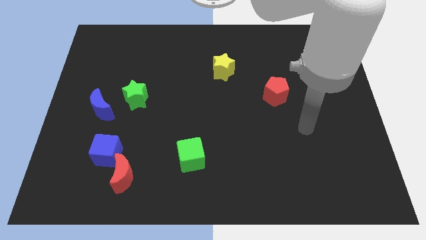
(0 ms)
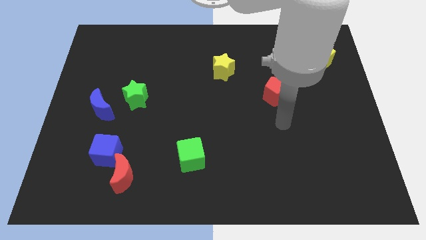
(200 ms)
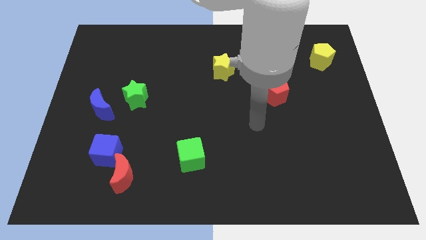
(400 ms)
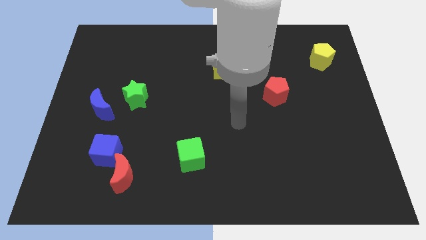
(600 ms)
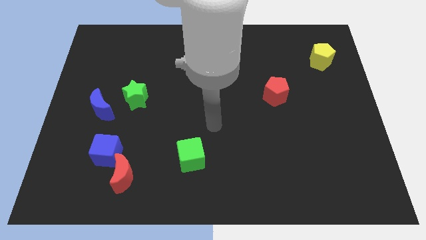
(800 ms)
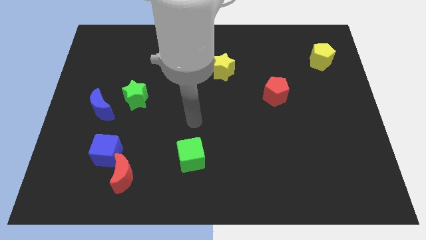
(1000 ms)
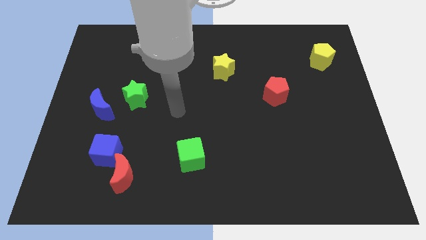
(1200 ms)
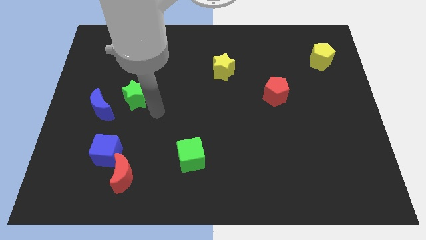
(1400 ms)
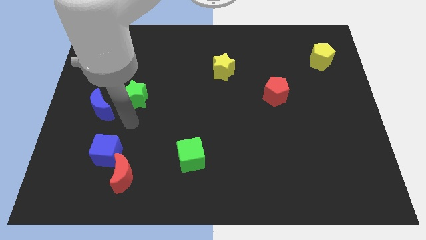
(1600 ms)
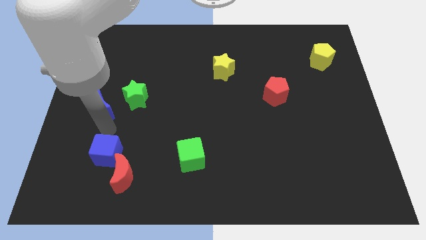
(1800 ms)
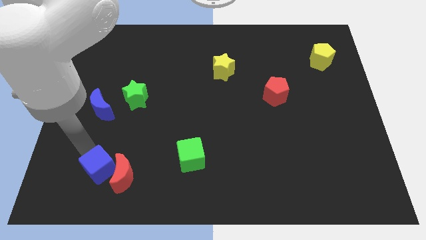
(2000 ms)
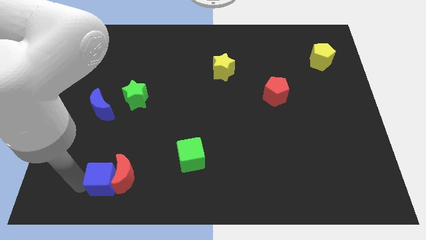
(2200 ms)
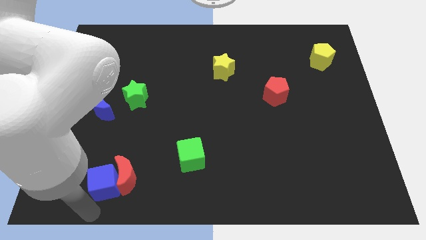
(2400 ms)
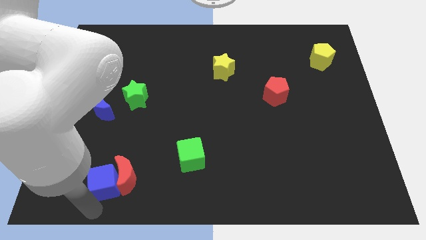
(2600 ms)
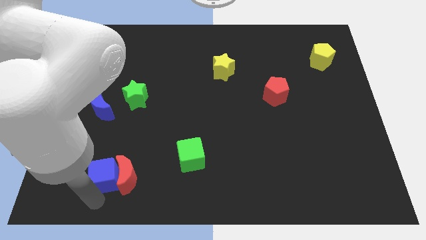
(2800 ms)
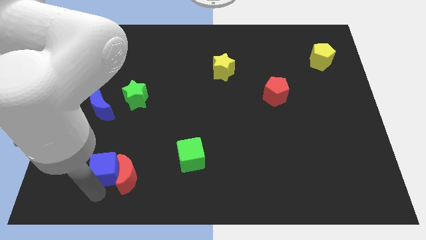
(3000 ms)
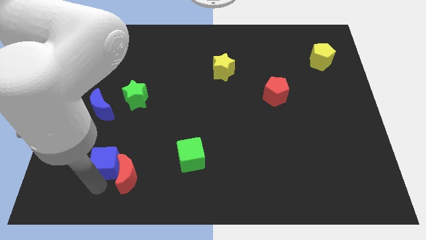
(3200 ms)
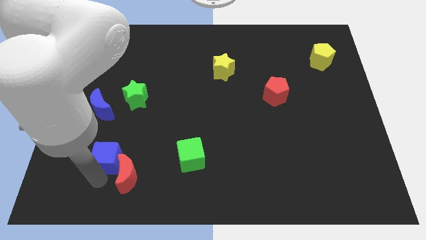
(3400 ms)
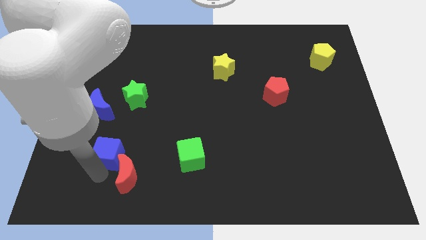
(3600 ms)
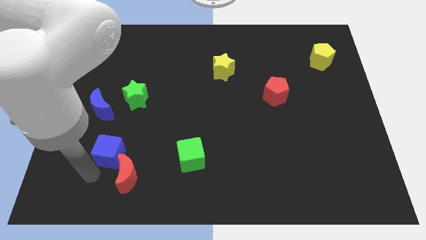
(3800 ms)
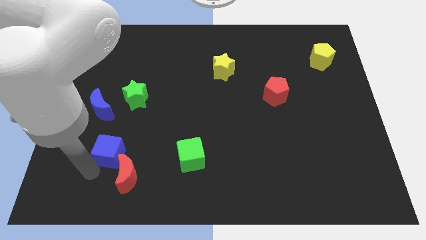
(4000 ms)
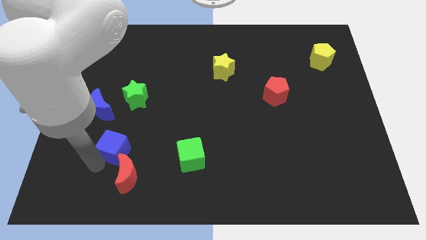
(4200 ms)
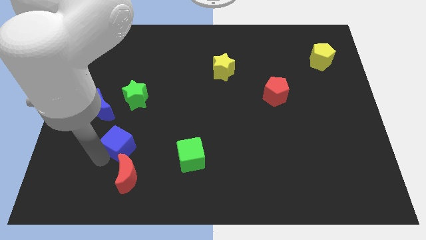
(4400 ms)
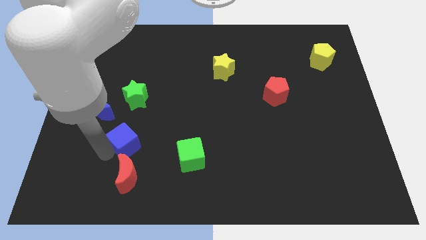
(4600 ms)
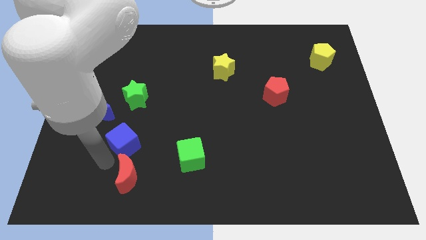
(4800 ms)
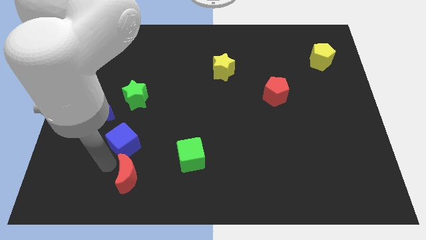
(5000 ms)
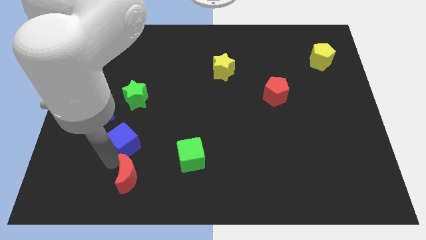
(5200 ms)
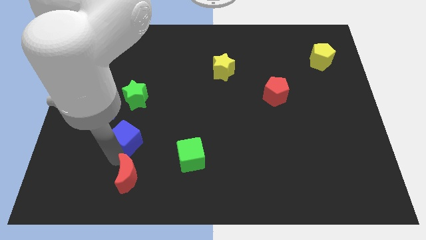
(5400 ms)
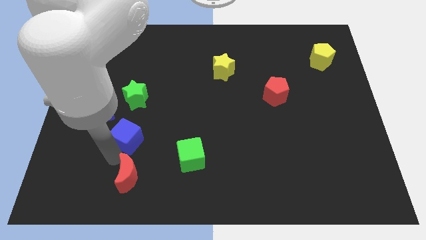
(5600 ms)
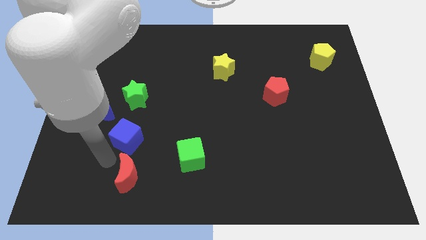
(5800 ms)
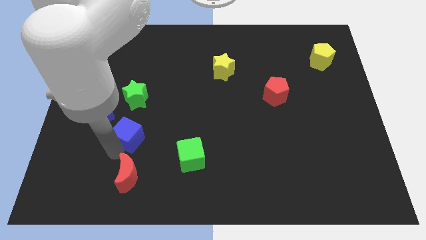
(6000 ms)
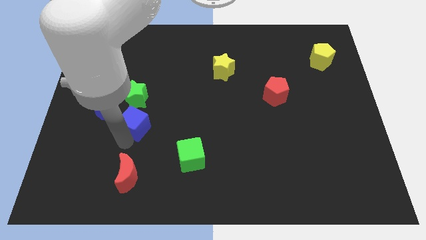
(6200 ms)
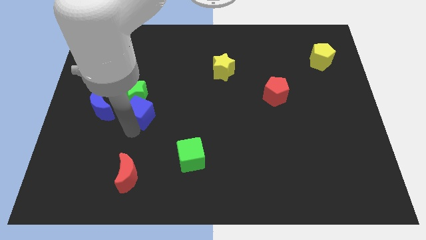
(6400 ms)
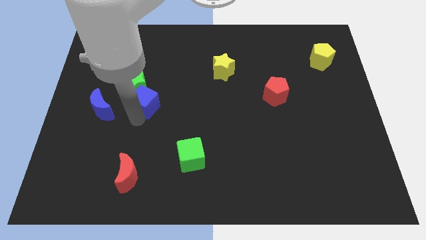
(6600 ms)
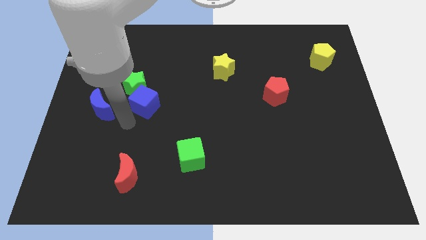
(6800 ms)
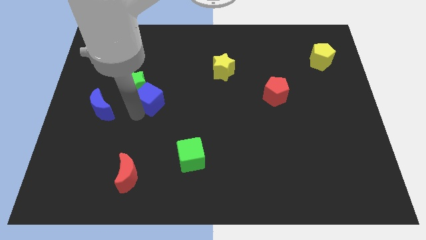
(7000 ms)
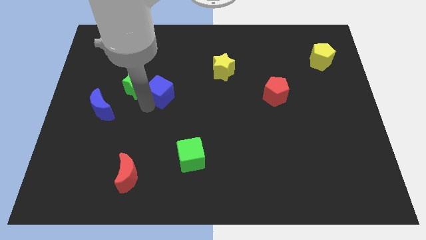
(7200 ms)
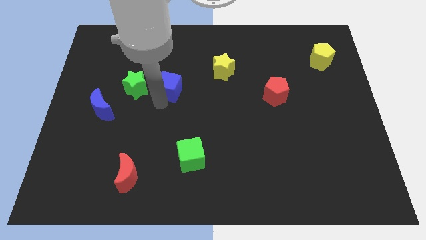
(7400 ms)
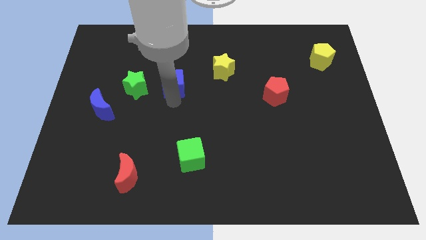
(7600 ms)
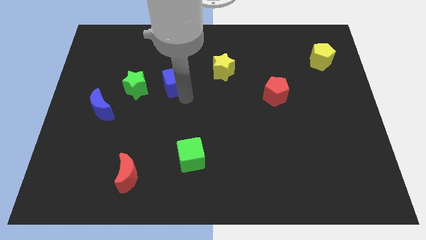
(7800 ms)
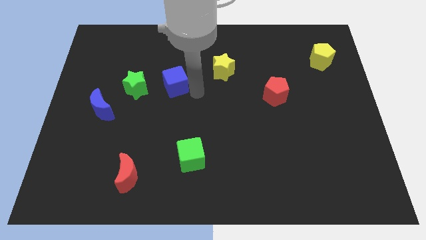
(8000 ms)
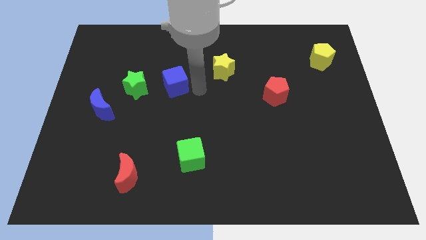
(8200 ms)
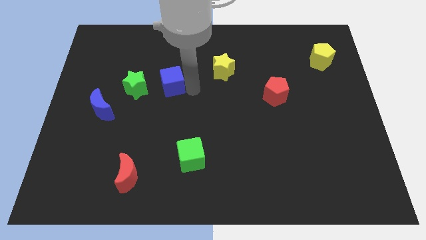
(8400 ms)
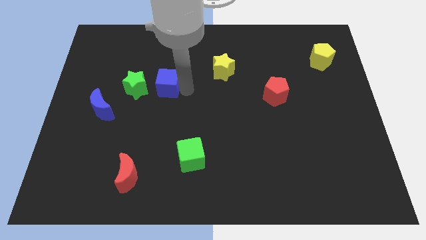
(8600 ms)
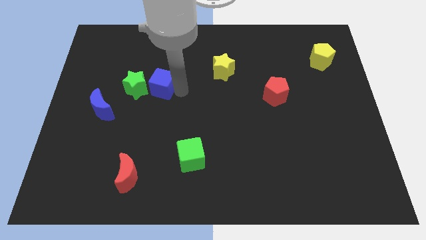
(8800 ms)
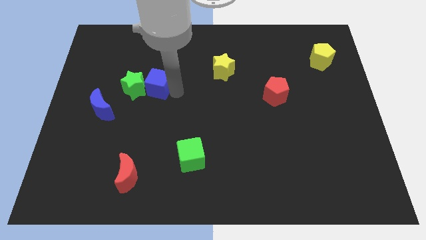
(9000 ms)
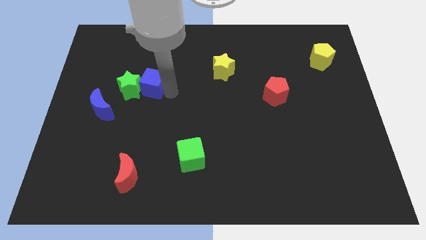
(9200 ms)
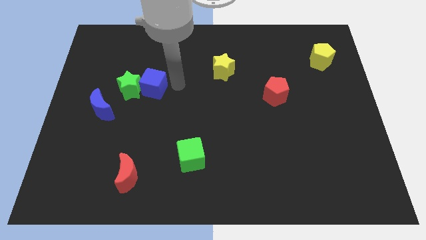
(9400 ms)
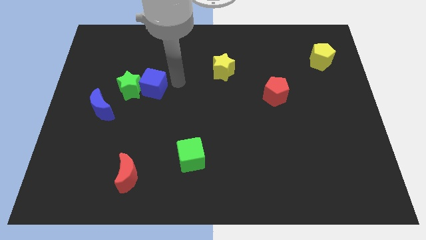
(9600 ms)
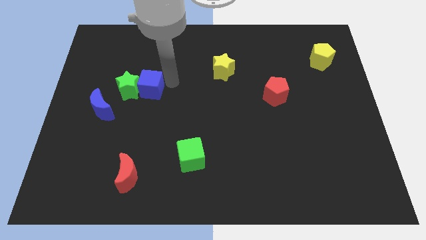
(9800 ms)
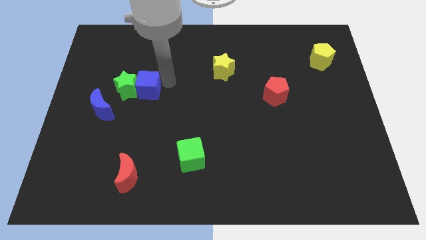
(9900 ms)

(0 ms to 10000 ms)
slide the blue cube diagonally up and to the right of the blue moon

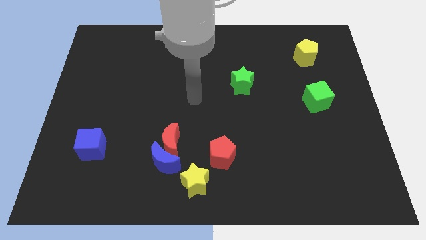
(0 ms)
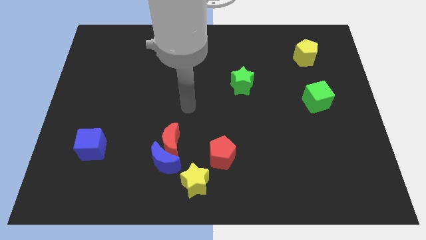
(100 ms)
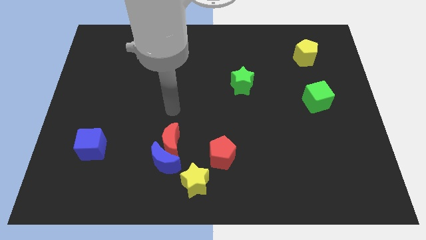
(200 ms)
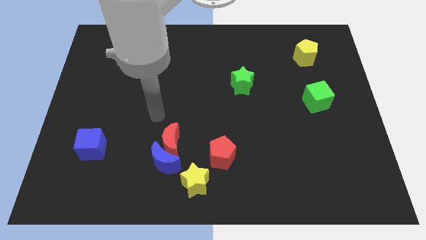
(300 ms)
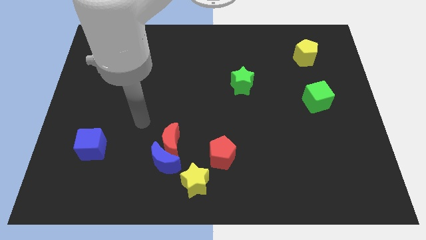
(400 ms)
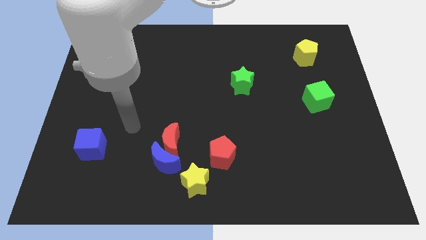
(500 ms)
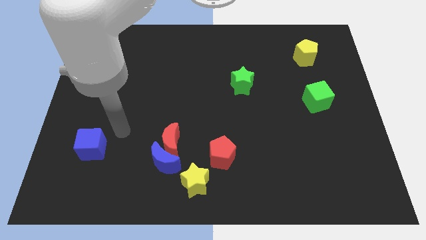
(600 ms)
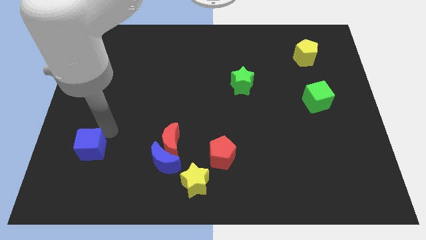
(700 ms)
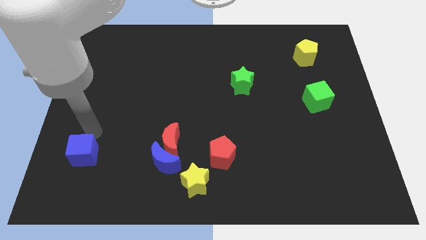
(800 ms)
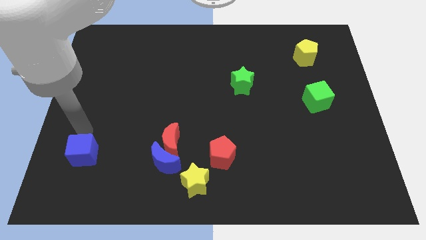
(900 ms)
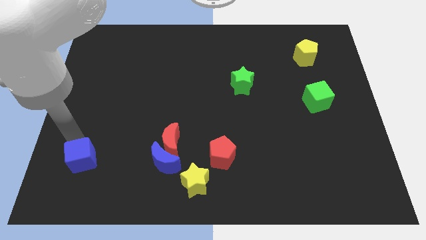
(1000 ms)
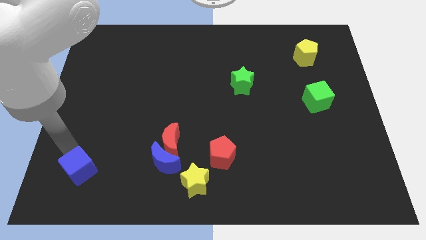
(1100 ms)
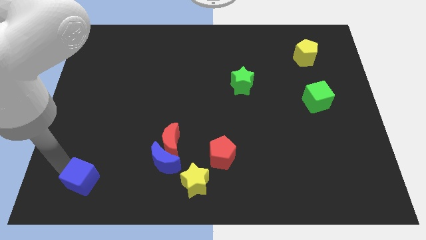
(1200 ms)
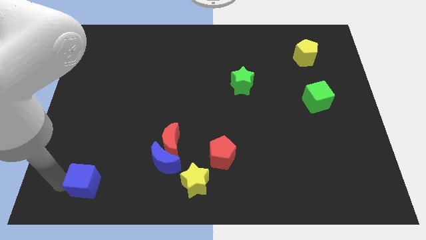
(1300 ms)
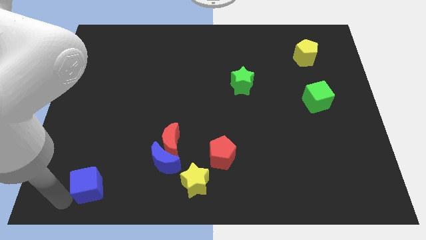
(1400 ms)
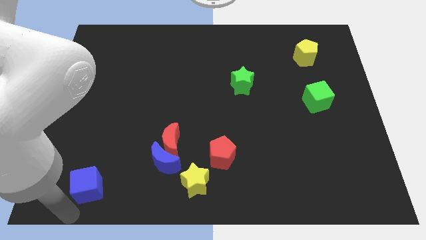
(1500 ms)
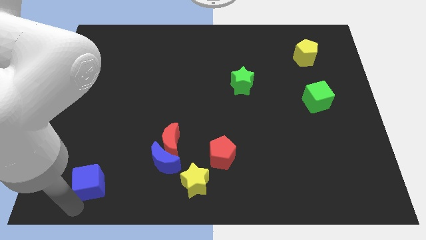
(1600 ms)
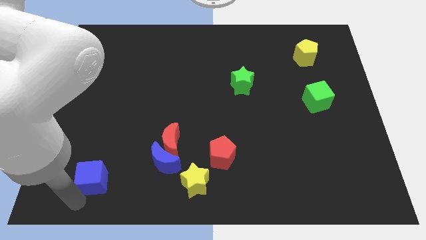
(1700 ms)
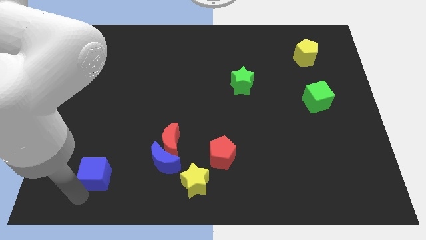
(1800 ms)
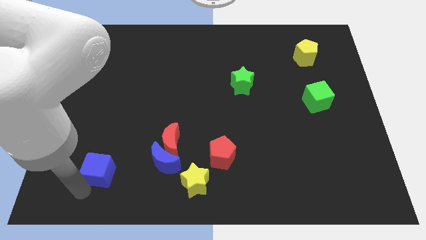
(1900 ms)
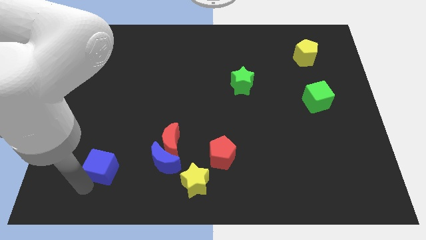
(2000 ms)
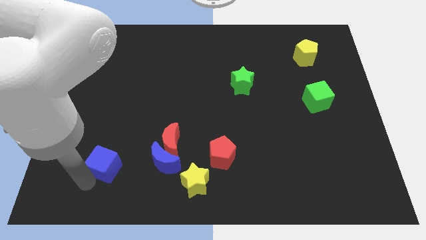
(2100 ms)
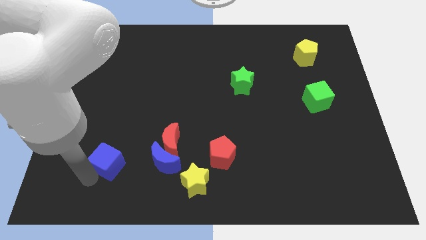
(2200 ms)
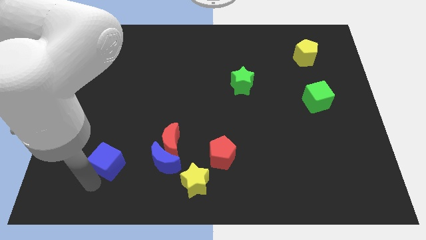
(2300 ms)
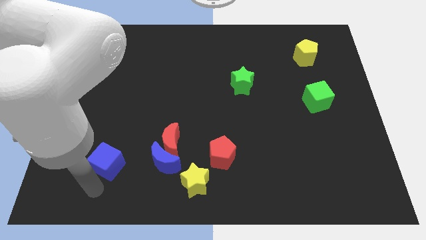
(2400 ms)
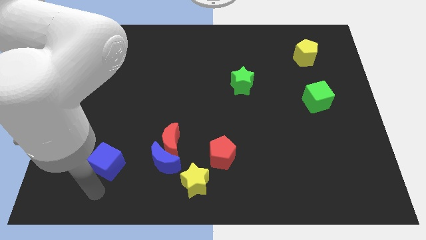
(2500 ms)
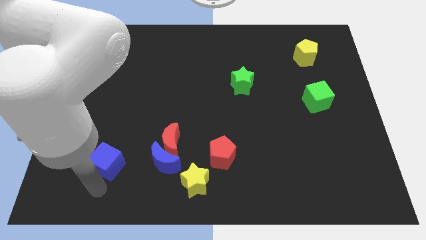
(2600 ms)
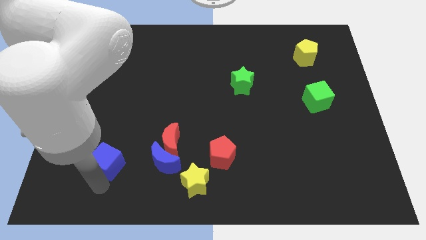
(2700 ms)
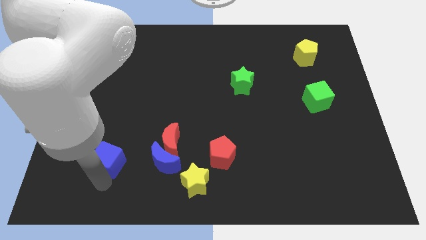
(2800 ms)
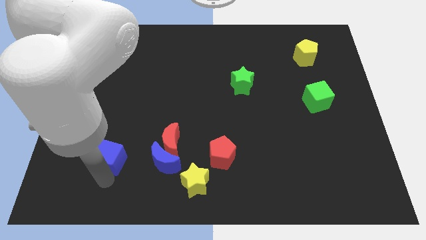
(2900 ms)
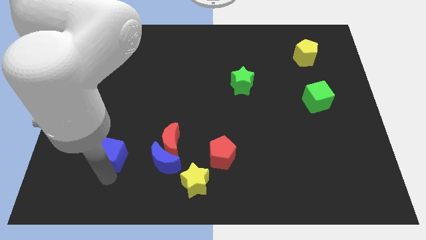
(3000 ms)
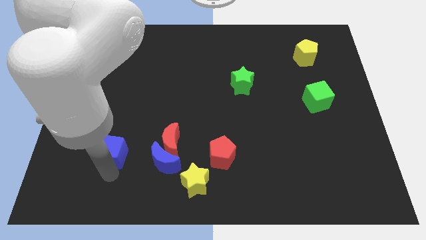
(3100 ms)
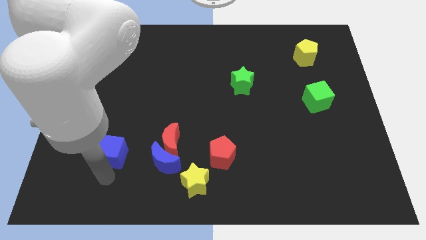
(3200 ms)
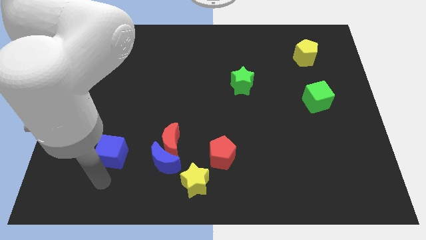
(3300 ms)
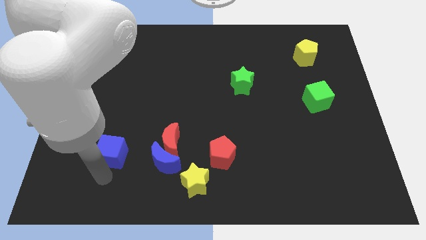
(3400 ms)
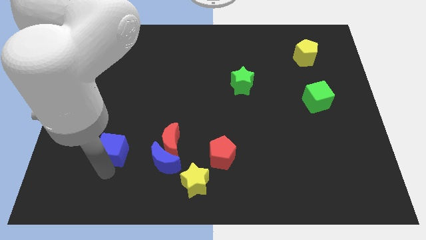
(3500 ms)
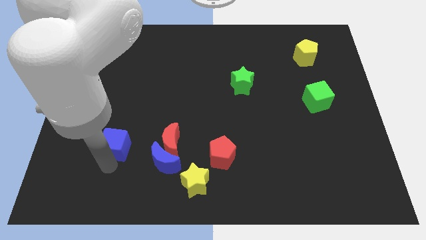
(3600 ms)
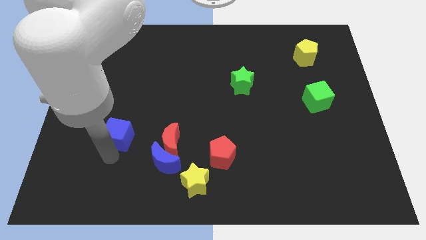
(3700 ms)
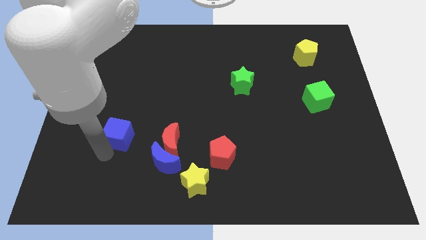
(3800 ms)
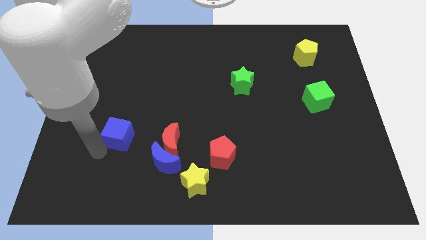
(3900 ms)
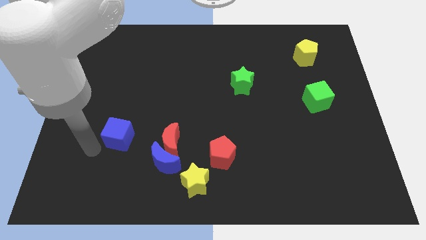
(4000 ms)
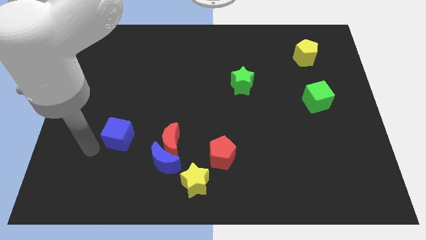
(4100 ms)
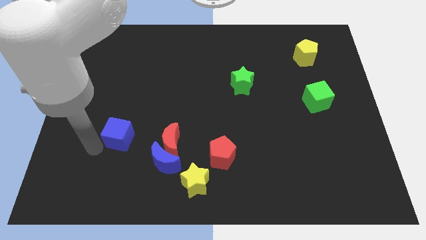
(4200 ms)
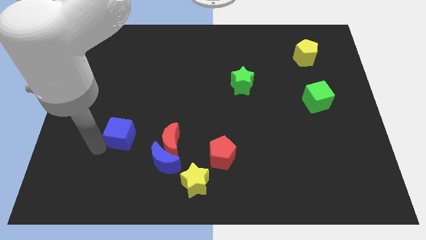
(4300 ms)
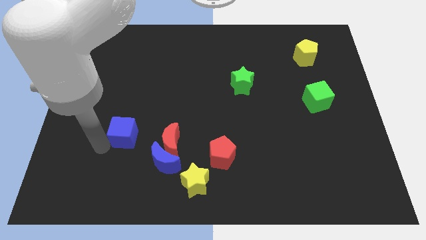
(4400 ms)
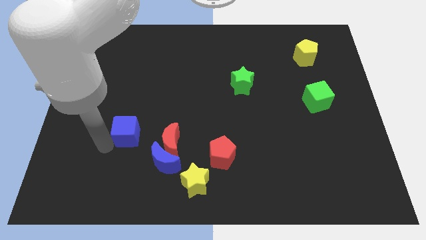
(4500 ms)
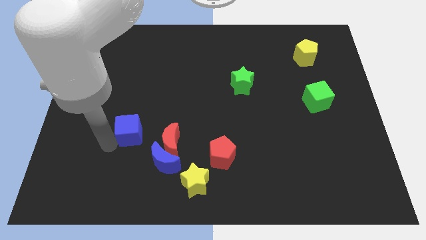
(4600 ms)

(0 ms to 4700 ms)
push the blue cube to the top left side of the red moon
